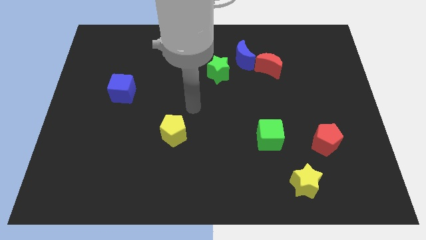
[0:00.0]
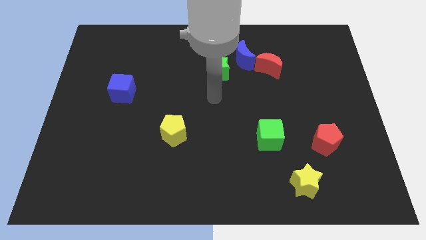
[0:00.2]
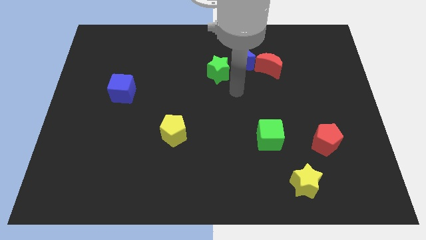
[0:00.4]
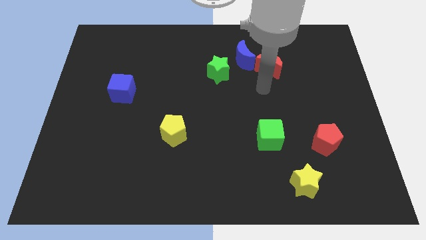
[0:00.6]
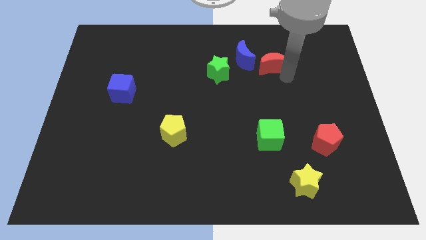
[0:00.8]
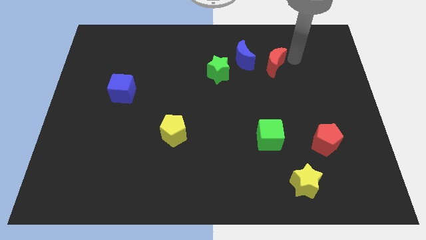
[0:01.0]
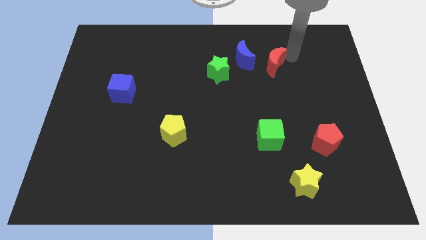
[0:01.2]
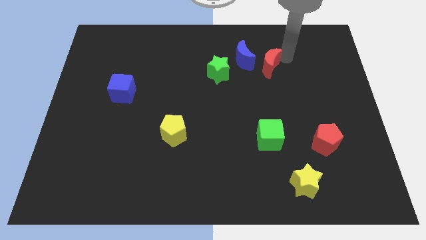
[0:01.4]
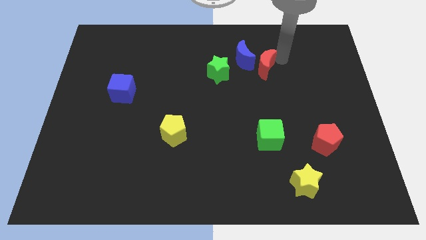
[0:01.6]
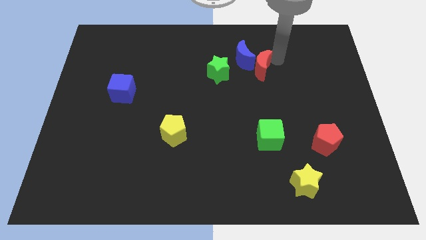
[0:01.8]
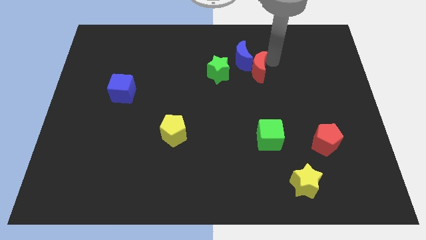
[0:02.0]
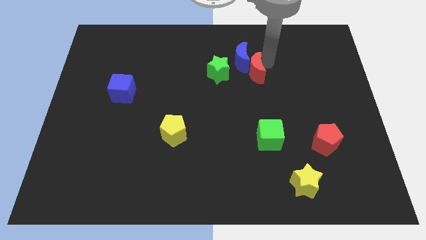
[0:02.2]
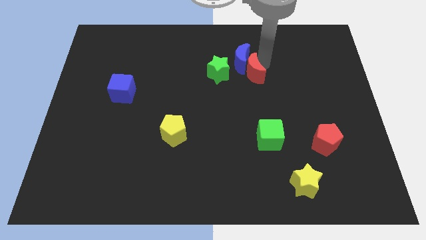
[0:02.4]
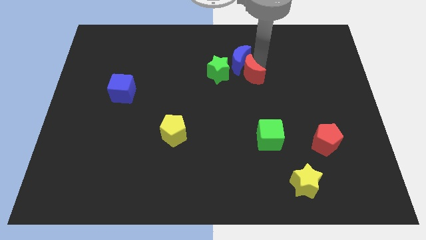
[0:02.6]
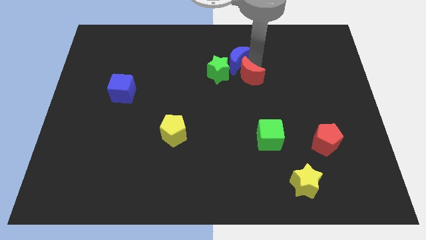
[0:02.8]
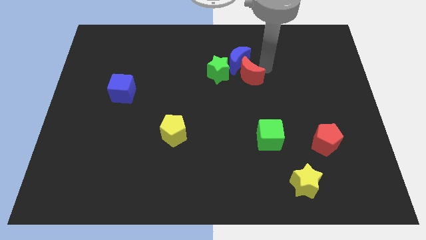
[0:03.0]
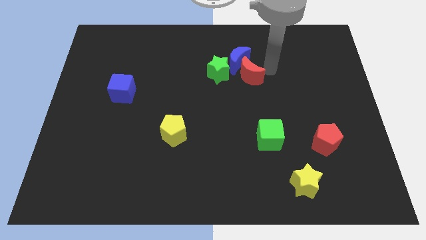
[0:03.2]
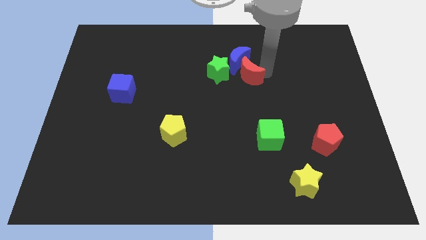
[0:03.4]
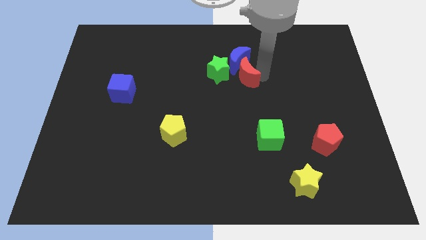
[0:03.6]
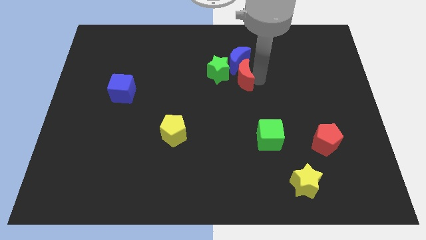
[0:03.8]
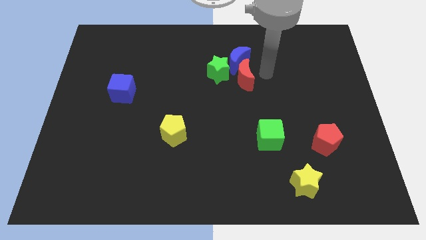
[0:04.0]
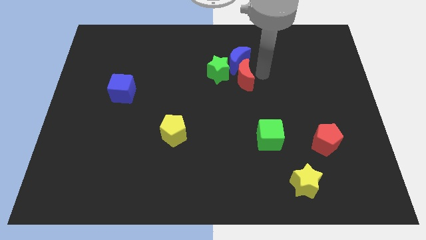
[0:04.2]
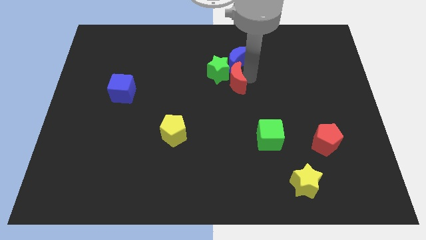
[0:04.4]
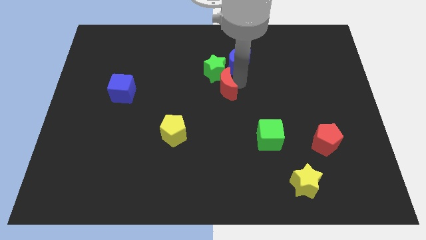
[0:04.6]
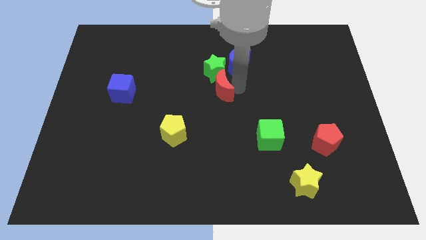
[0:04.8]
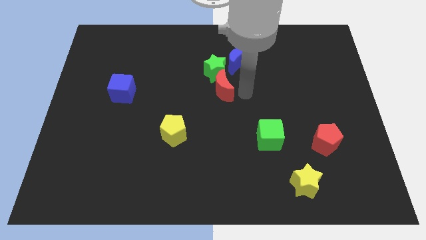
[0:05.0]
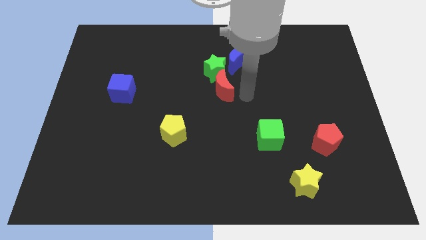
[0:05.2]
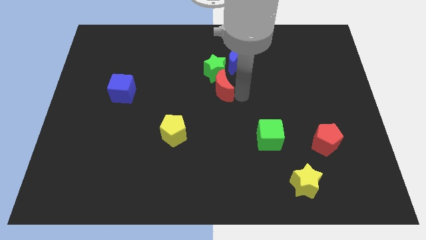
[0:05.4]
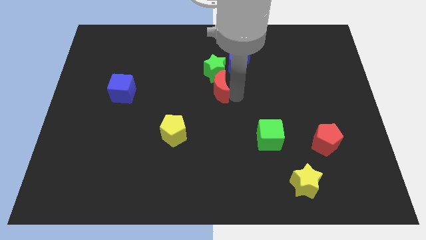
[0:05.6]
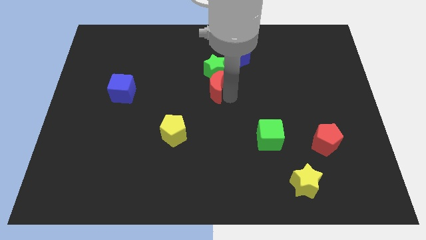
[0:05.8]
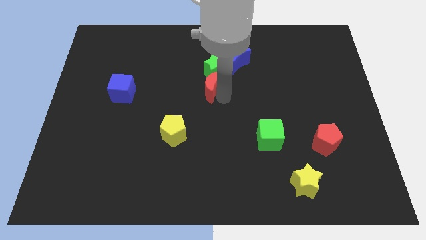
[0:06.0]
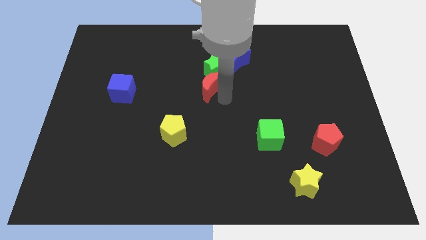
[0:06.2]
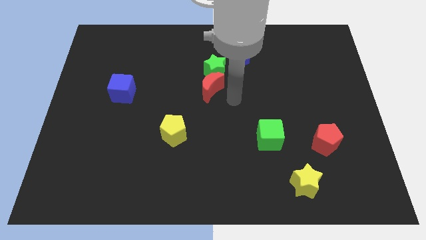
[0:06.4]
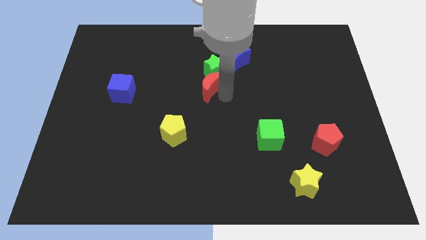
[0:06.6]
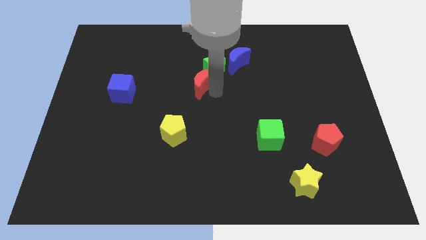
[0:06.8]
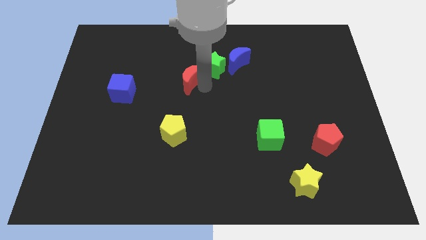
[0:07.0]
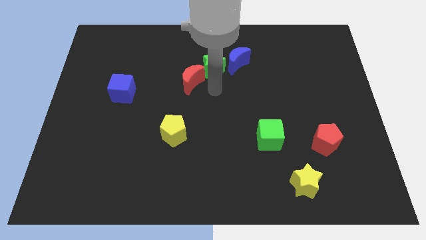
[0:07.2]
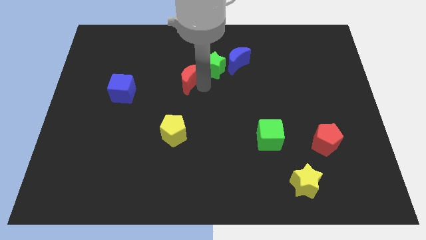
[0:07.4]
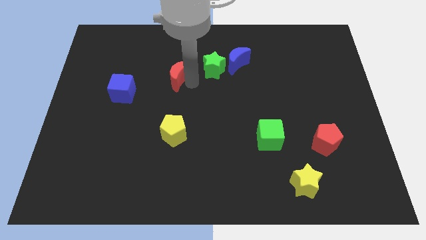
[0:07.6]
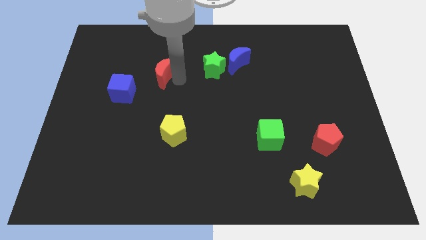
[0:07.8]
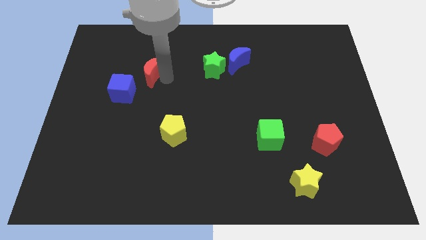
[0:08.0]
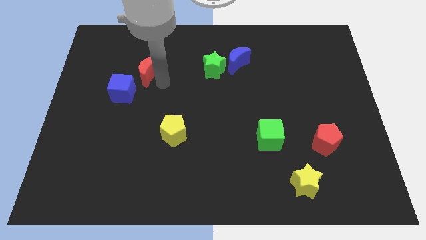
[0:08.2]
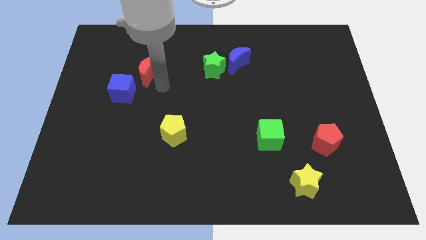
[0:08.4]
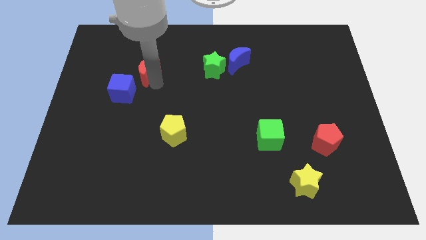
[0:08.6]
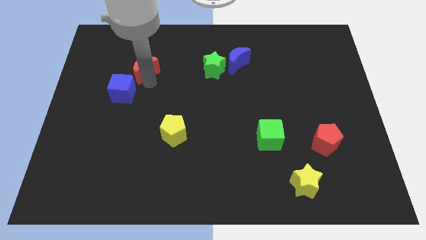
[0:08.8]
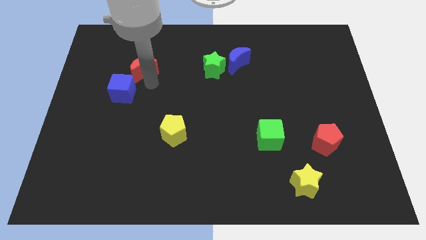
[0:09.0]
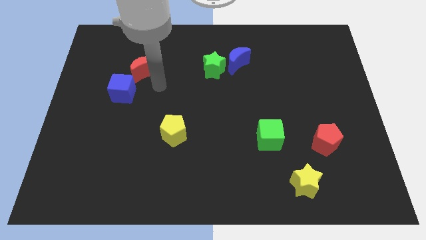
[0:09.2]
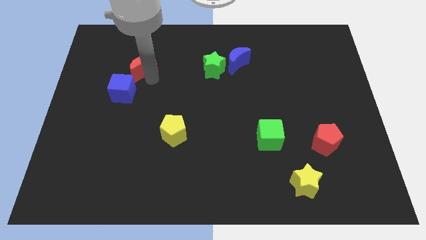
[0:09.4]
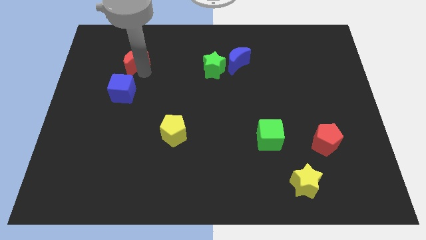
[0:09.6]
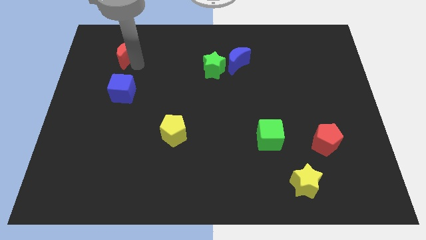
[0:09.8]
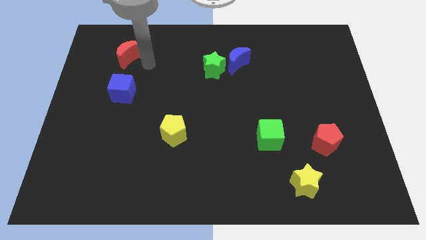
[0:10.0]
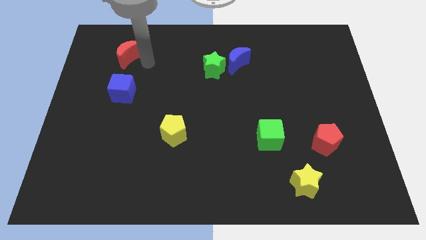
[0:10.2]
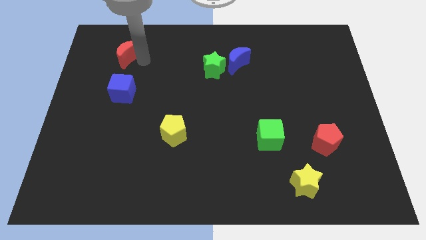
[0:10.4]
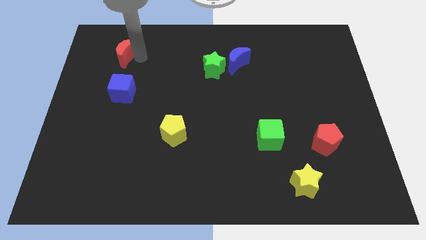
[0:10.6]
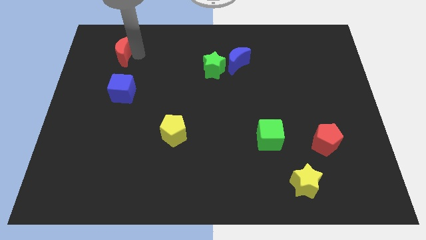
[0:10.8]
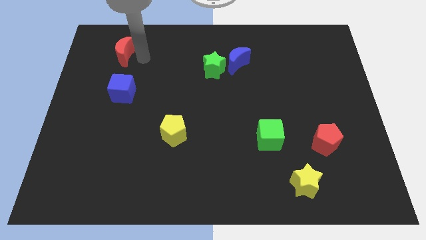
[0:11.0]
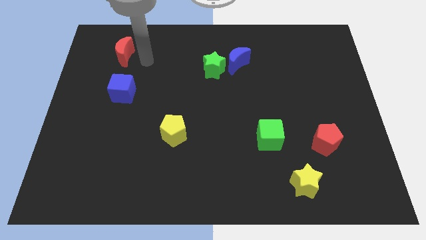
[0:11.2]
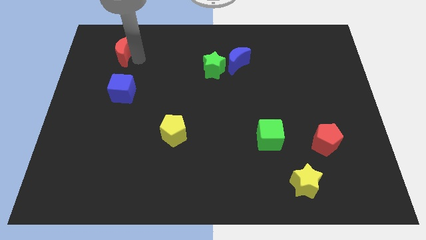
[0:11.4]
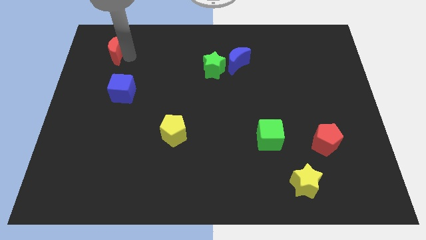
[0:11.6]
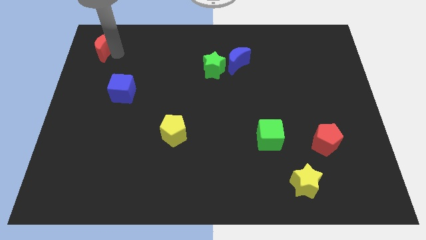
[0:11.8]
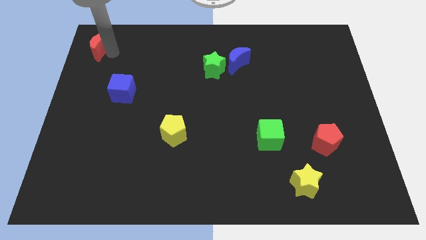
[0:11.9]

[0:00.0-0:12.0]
move the red moon to the top left corner

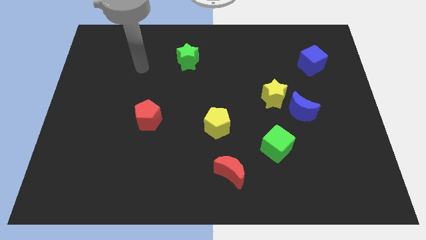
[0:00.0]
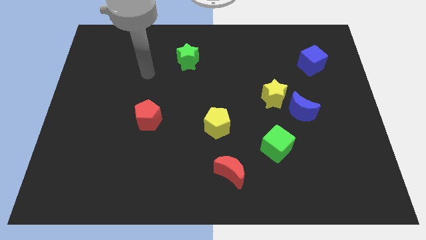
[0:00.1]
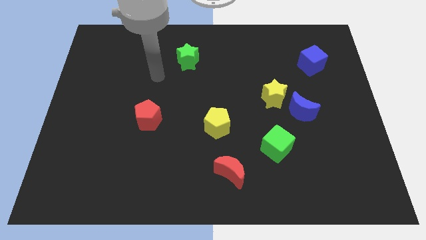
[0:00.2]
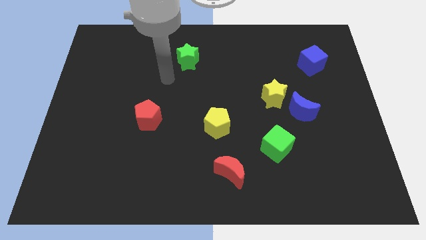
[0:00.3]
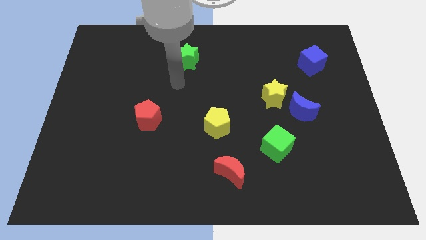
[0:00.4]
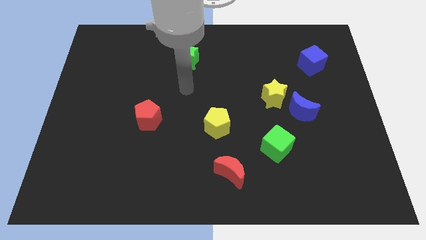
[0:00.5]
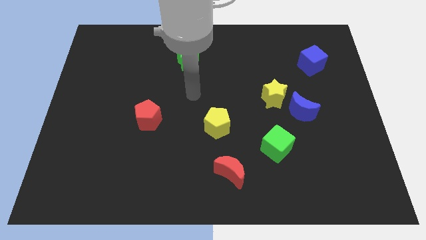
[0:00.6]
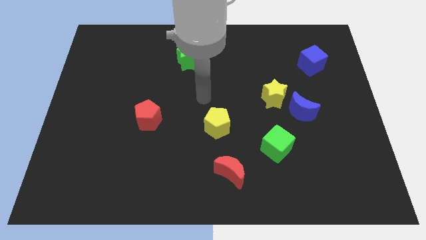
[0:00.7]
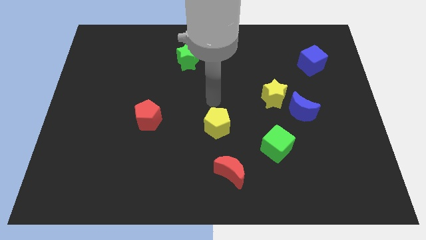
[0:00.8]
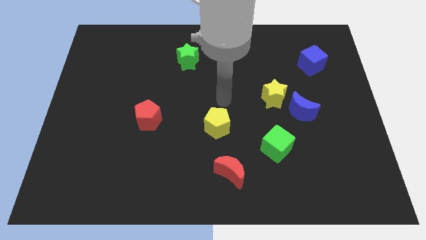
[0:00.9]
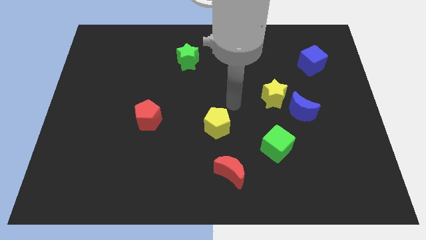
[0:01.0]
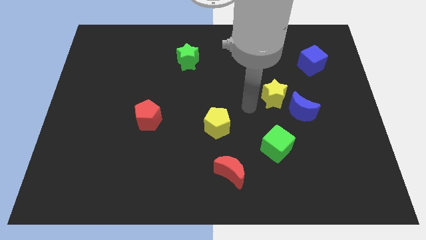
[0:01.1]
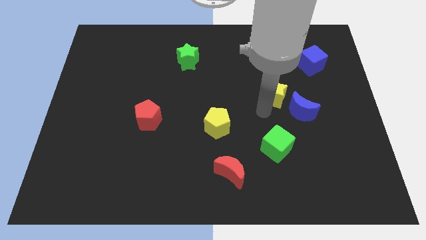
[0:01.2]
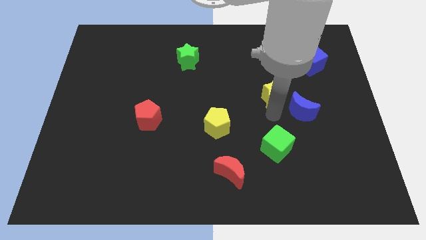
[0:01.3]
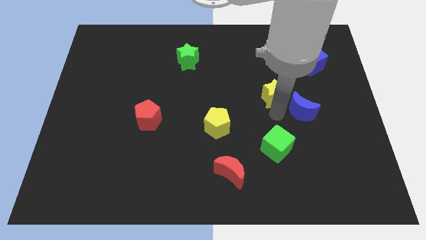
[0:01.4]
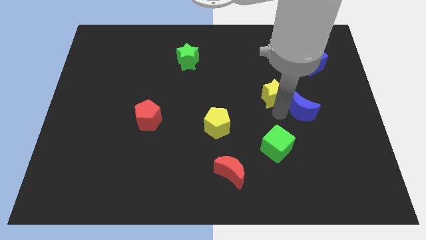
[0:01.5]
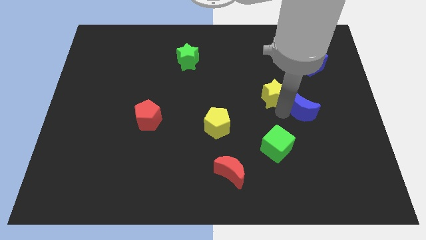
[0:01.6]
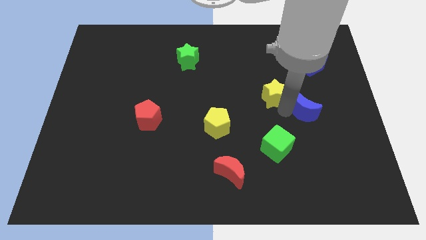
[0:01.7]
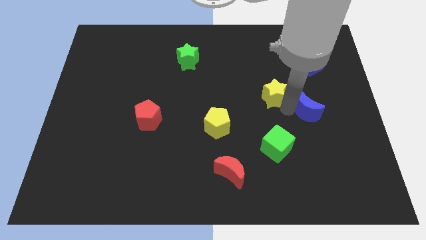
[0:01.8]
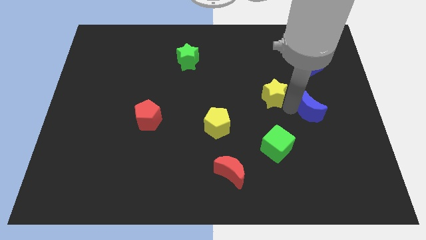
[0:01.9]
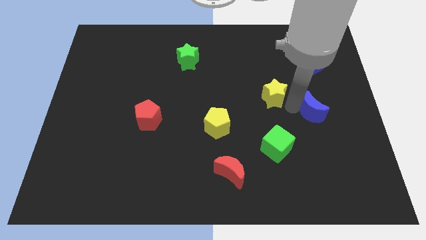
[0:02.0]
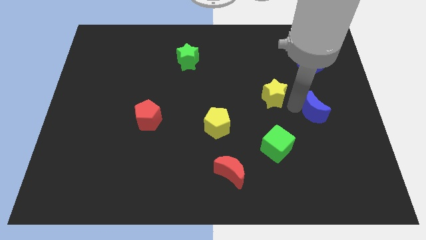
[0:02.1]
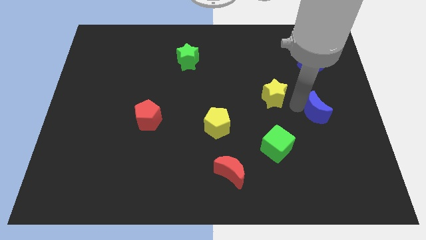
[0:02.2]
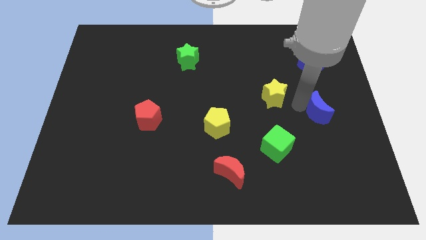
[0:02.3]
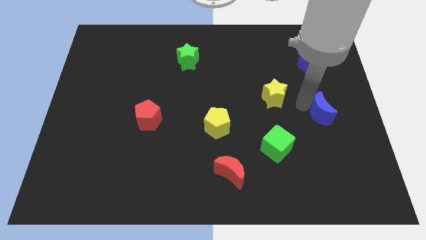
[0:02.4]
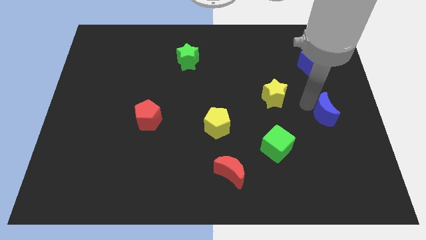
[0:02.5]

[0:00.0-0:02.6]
slide the blue moon to the center right
